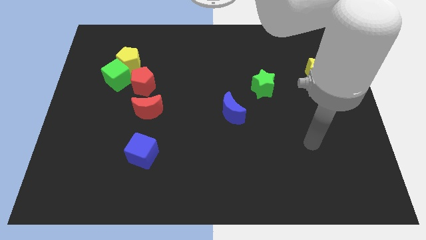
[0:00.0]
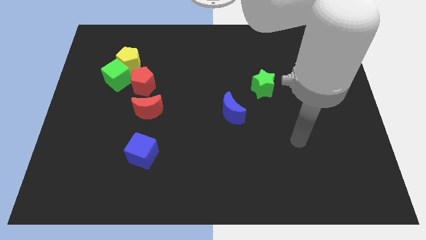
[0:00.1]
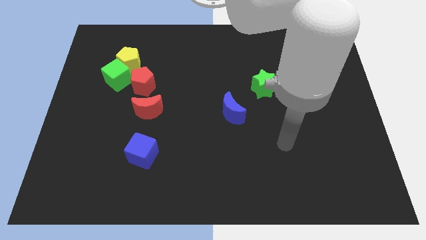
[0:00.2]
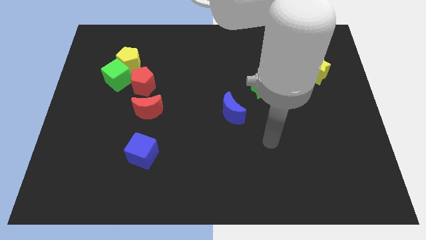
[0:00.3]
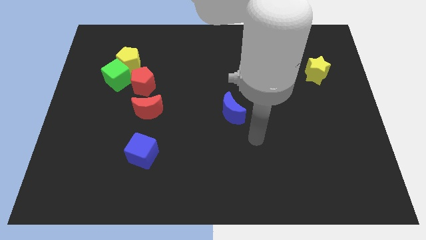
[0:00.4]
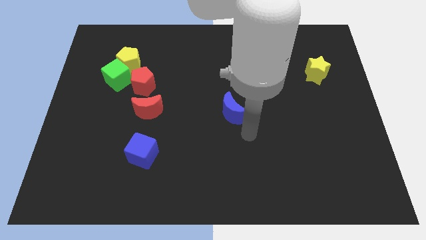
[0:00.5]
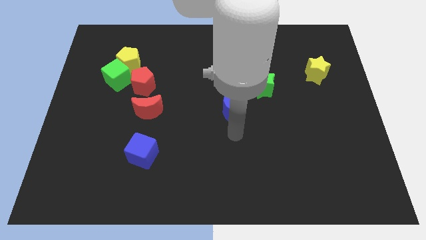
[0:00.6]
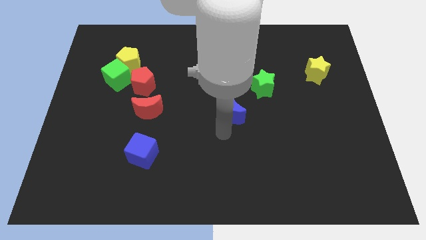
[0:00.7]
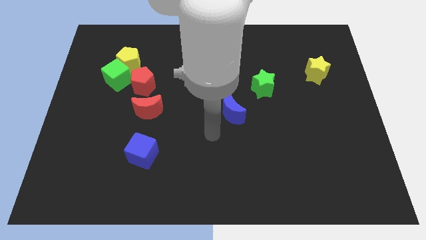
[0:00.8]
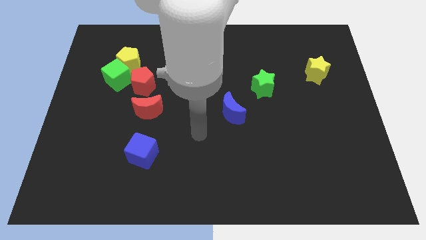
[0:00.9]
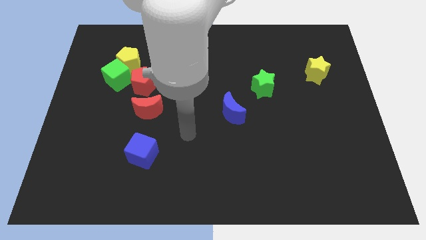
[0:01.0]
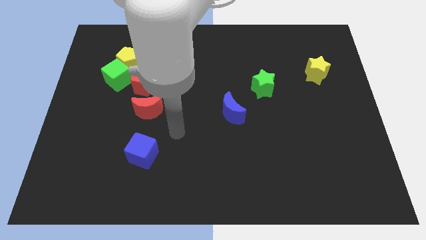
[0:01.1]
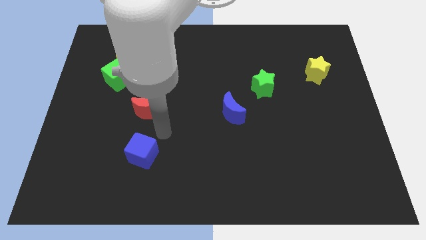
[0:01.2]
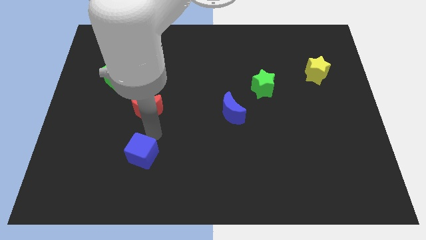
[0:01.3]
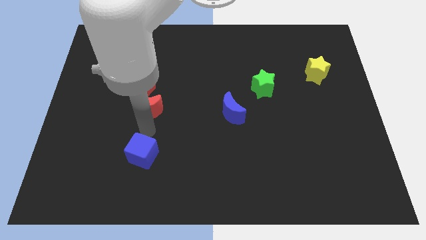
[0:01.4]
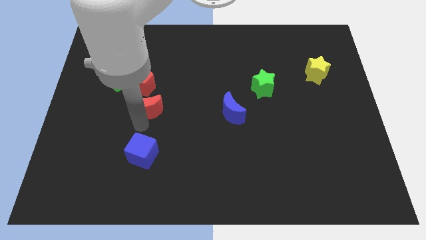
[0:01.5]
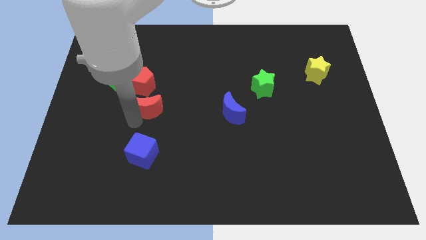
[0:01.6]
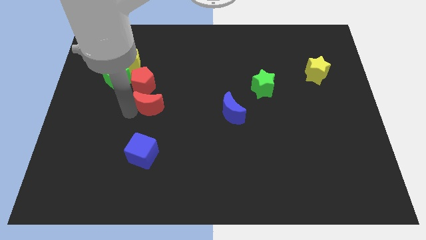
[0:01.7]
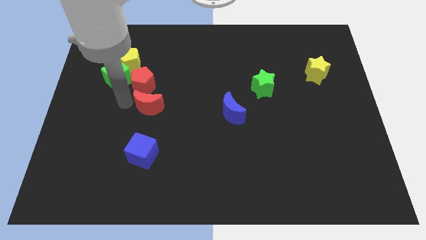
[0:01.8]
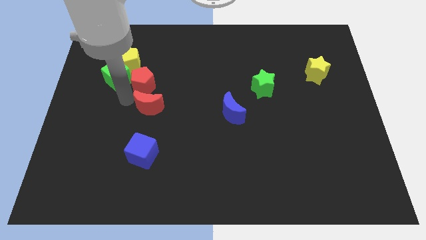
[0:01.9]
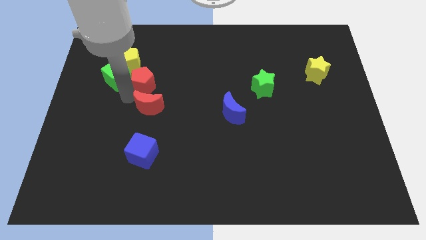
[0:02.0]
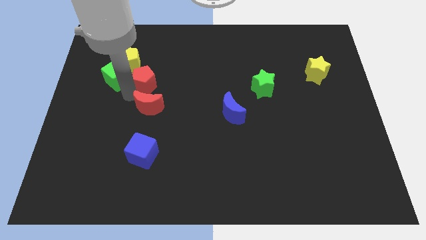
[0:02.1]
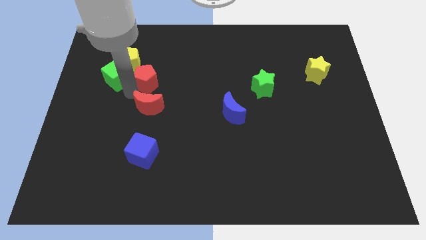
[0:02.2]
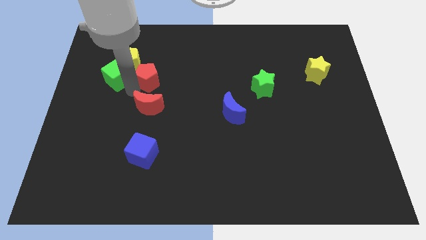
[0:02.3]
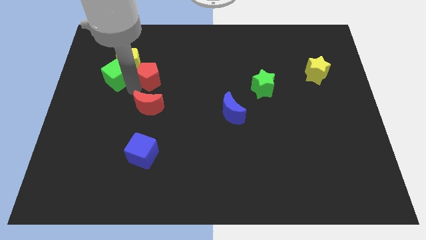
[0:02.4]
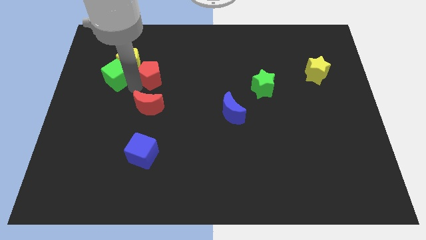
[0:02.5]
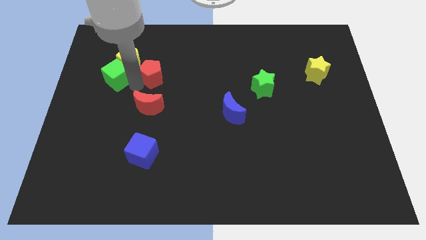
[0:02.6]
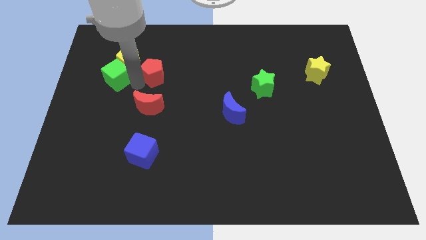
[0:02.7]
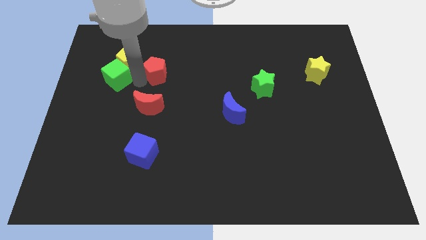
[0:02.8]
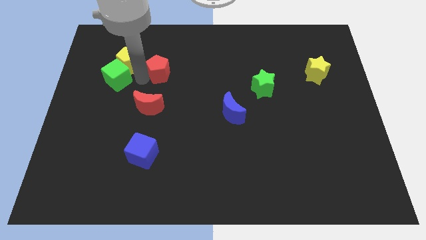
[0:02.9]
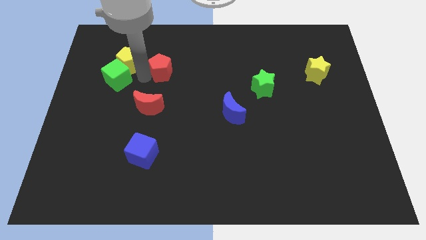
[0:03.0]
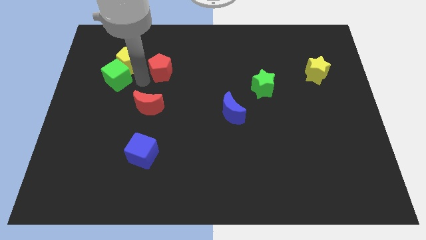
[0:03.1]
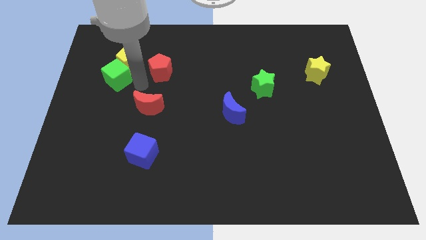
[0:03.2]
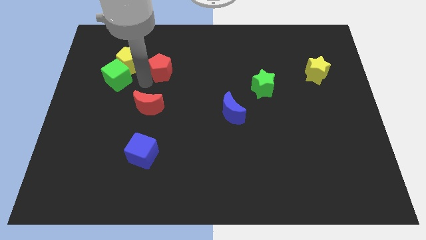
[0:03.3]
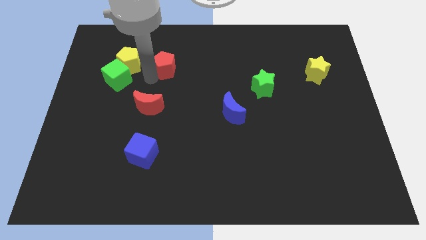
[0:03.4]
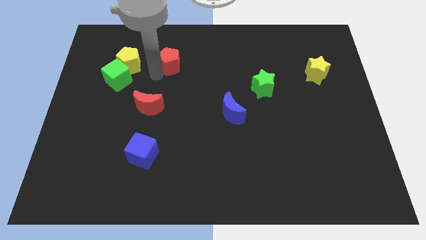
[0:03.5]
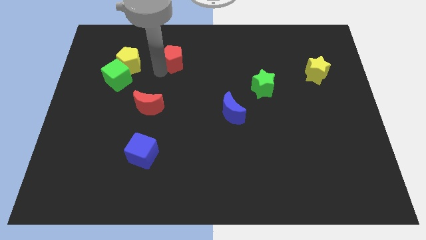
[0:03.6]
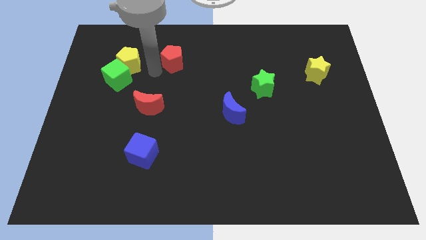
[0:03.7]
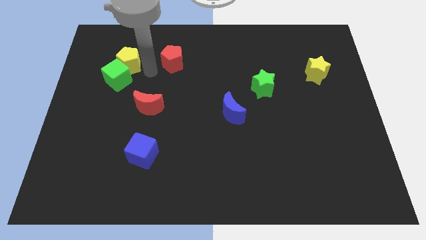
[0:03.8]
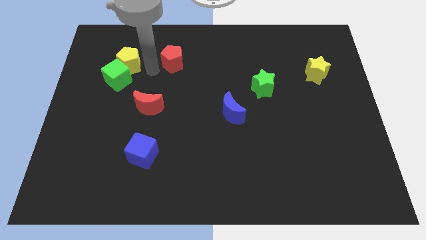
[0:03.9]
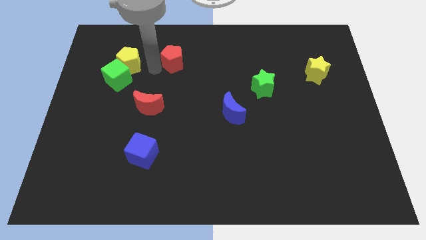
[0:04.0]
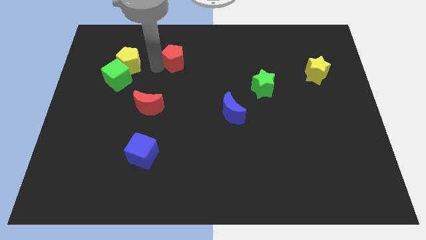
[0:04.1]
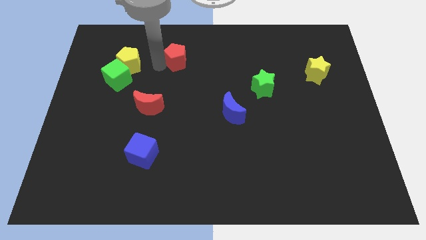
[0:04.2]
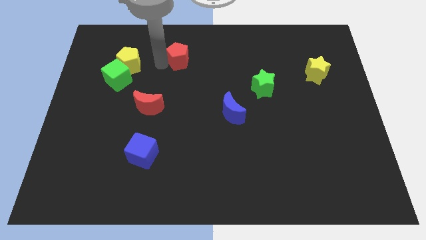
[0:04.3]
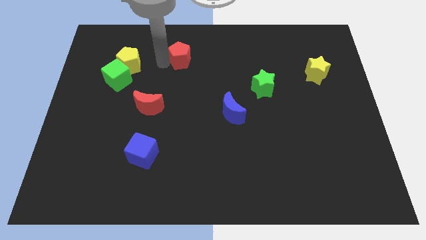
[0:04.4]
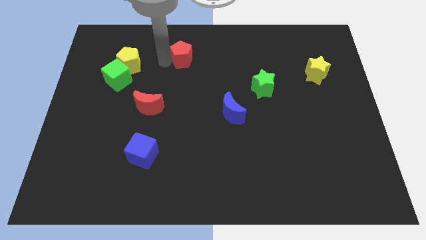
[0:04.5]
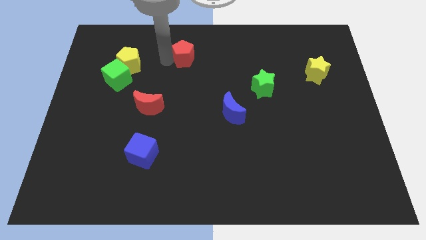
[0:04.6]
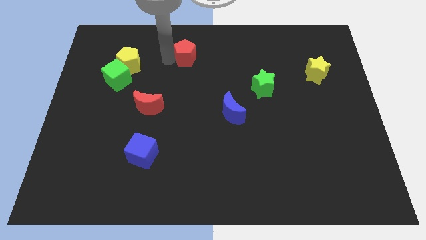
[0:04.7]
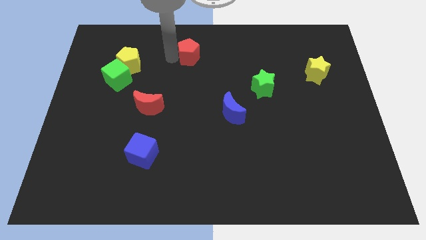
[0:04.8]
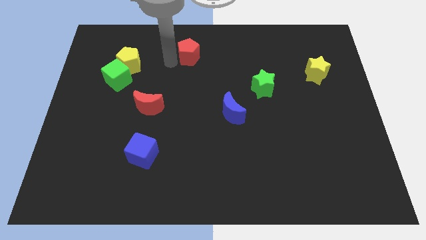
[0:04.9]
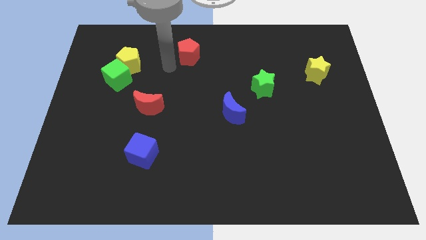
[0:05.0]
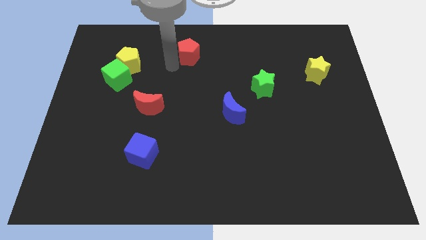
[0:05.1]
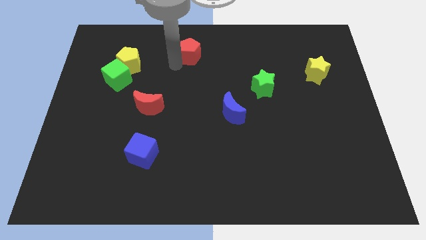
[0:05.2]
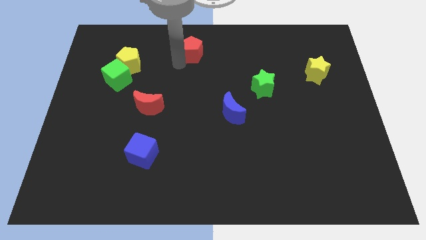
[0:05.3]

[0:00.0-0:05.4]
move the red pentagon to the top

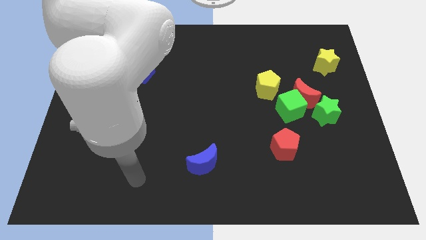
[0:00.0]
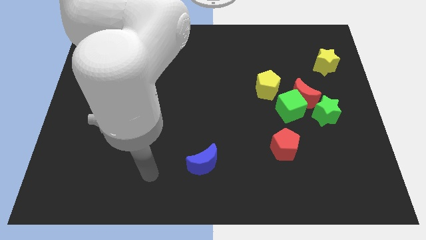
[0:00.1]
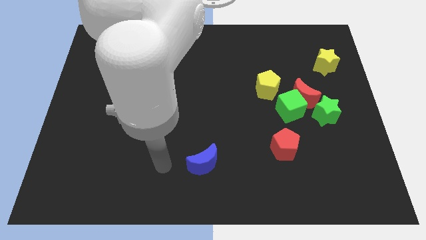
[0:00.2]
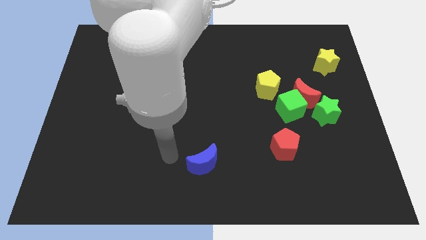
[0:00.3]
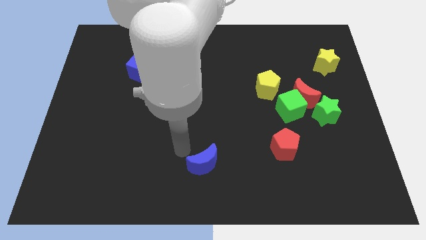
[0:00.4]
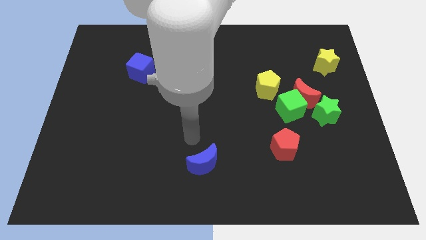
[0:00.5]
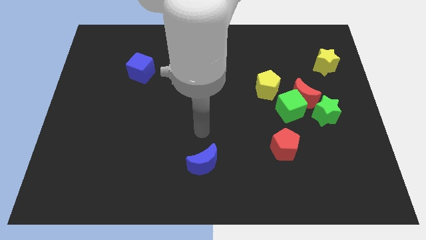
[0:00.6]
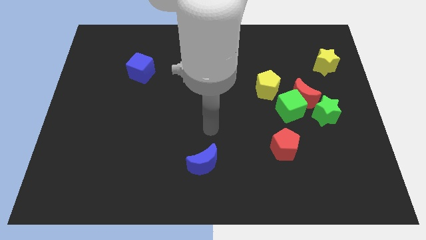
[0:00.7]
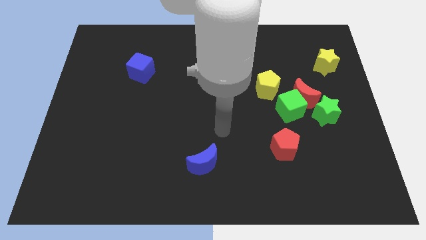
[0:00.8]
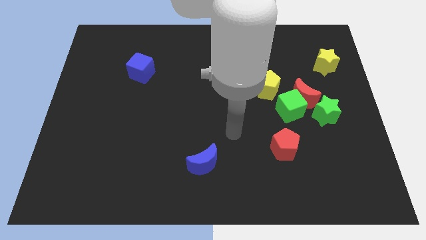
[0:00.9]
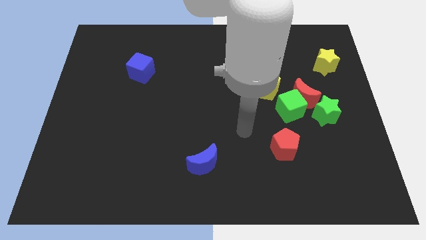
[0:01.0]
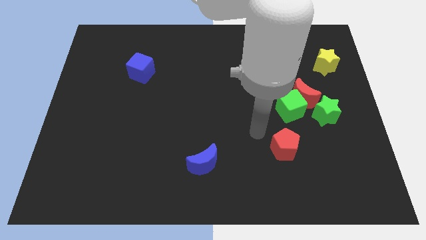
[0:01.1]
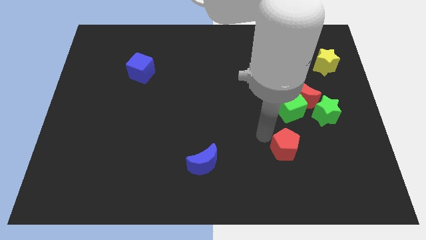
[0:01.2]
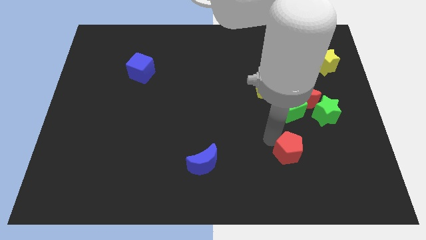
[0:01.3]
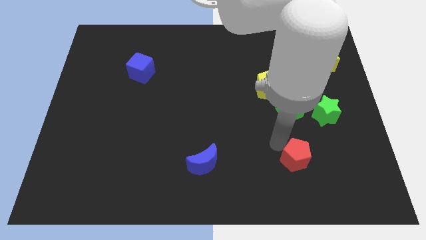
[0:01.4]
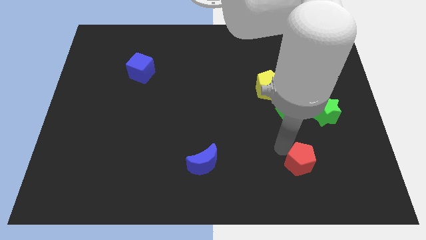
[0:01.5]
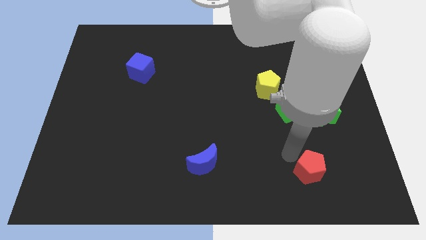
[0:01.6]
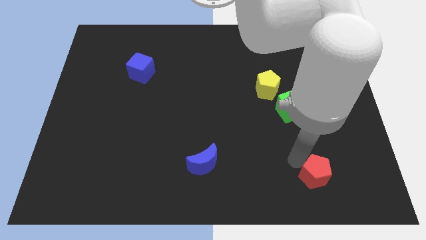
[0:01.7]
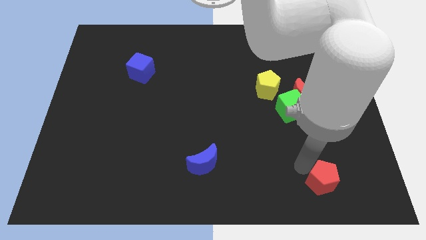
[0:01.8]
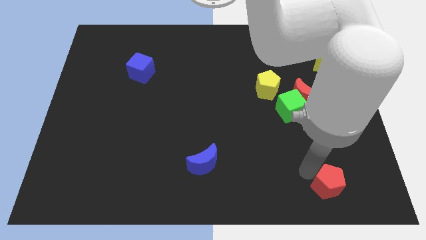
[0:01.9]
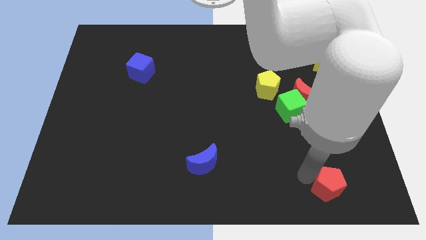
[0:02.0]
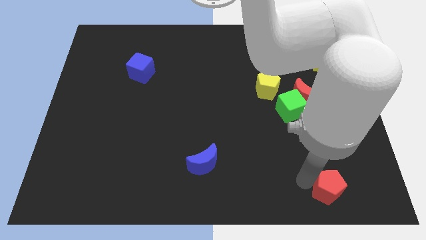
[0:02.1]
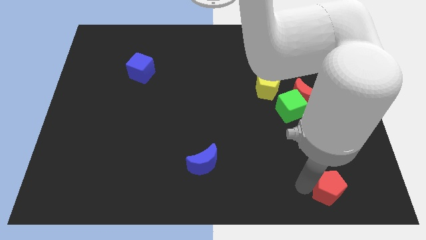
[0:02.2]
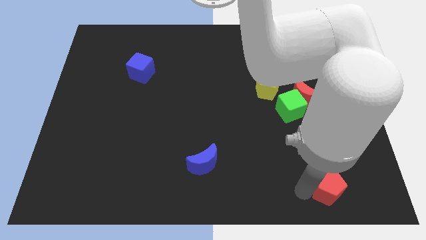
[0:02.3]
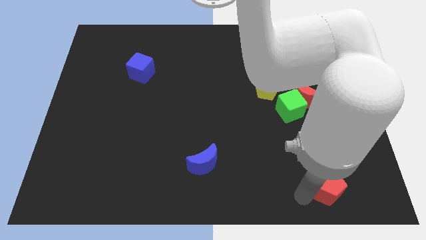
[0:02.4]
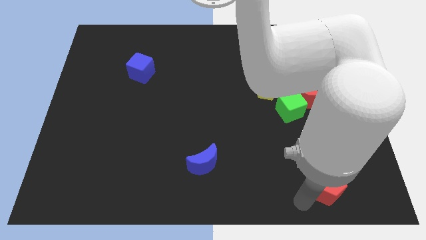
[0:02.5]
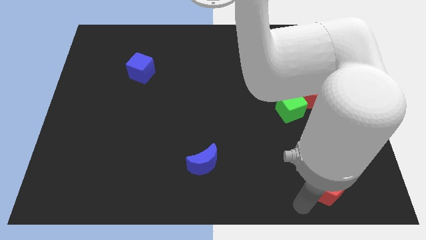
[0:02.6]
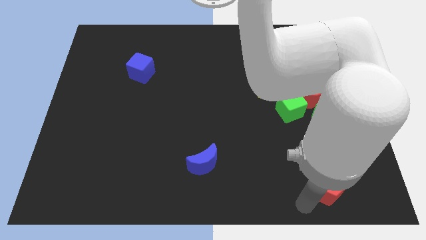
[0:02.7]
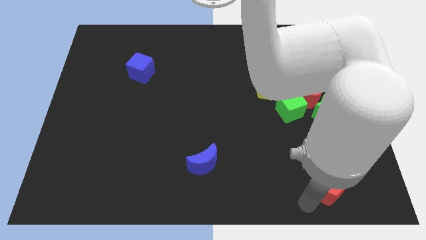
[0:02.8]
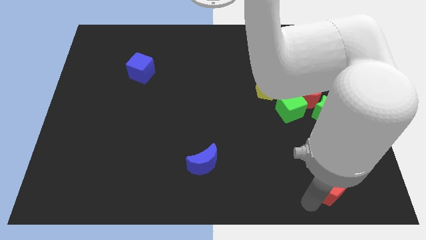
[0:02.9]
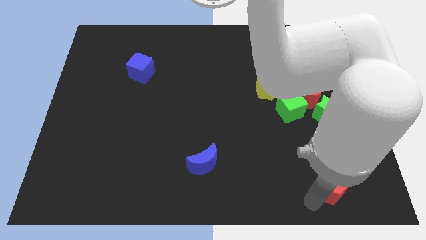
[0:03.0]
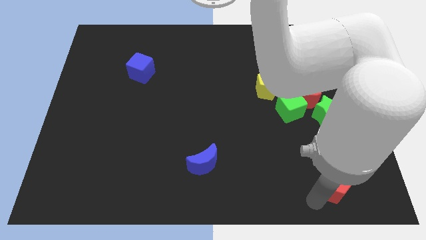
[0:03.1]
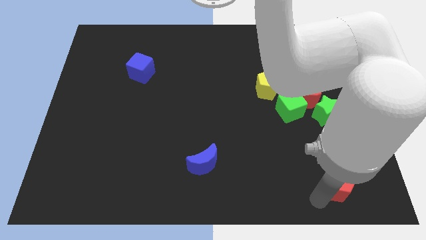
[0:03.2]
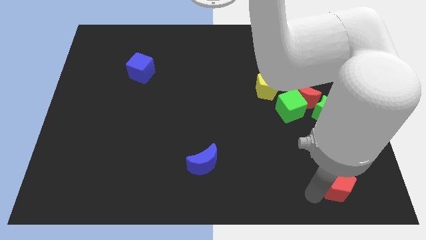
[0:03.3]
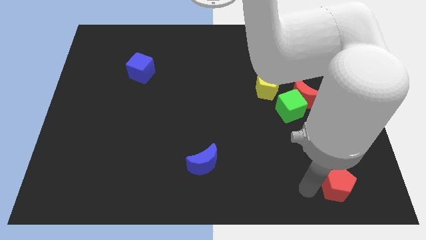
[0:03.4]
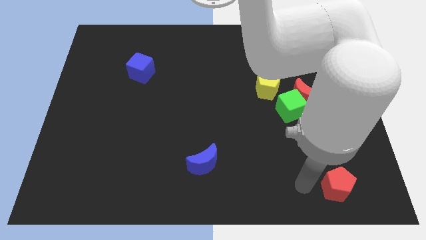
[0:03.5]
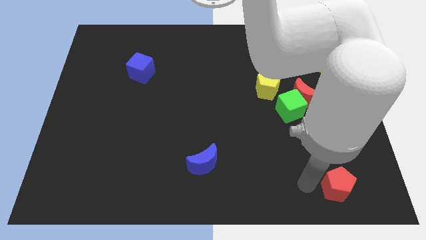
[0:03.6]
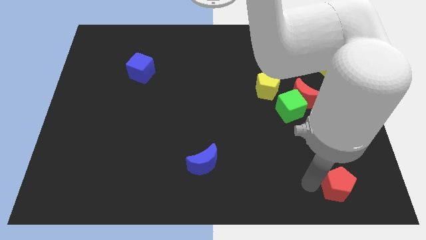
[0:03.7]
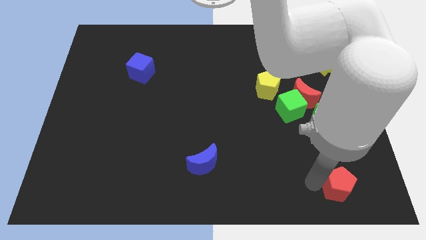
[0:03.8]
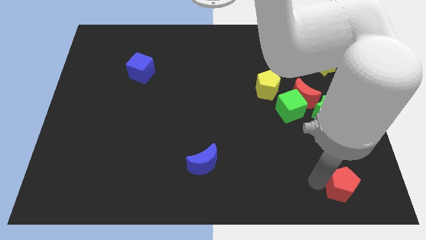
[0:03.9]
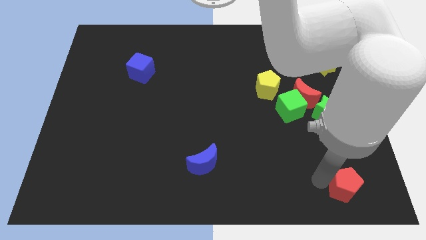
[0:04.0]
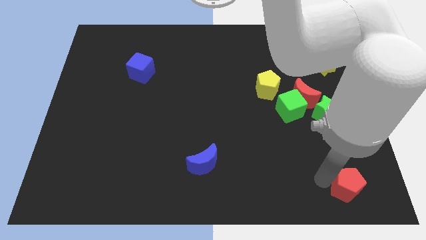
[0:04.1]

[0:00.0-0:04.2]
move the red pentagon to the bottom right corner
